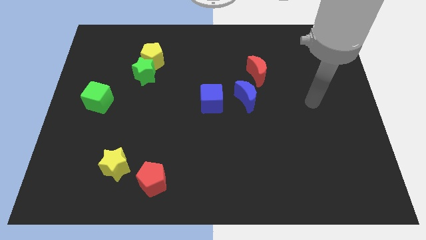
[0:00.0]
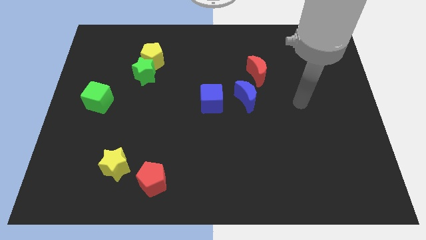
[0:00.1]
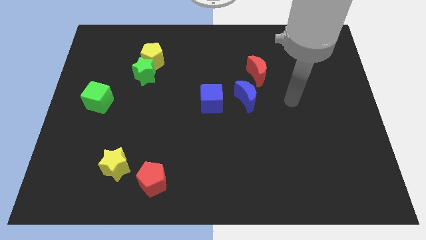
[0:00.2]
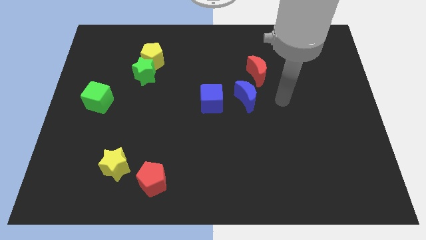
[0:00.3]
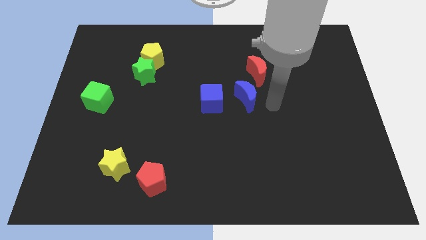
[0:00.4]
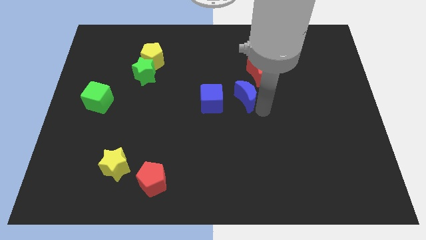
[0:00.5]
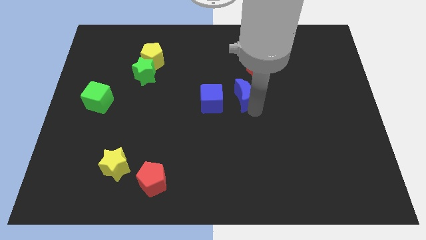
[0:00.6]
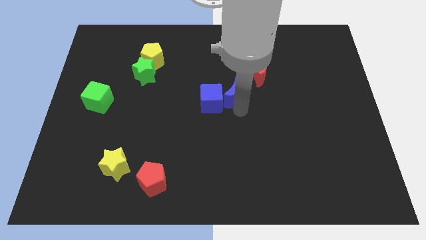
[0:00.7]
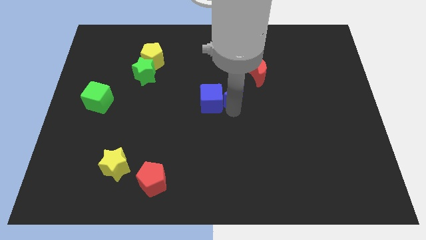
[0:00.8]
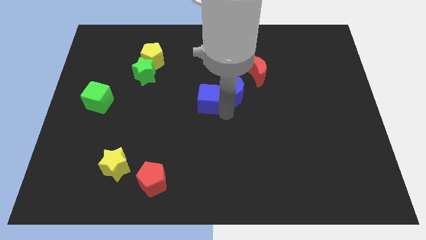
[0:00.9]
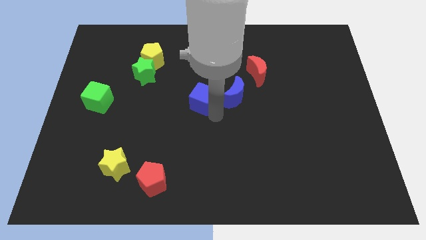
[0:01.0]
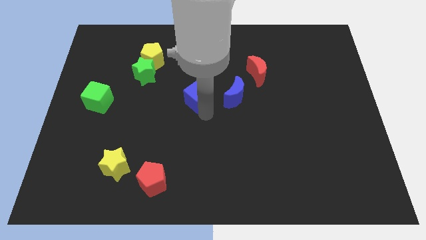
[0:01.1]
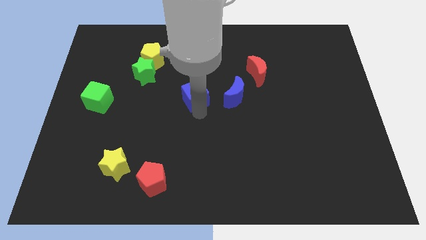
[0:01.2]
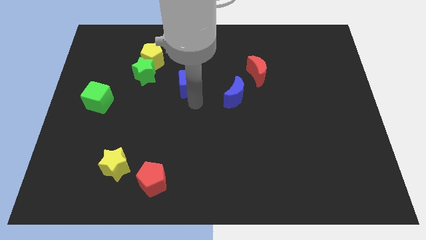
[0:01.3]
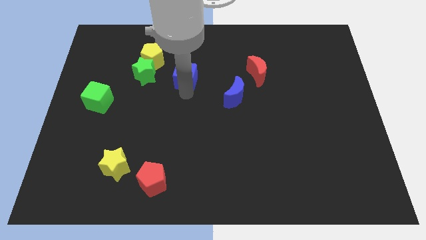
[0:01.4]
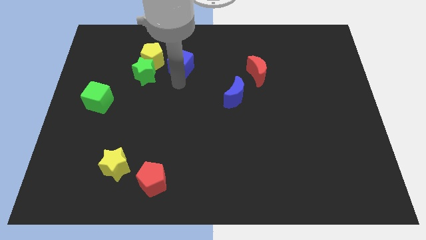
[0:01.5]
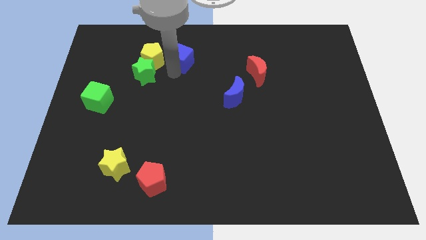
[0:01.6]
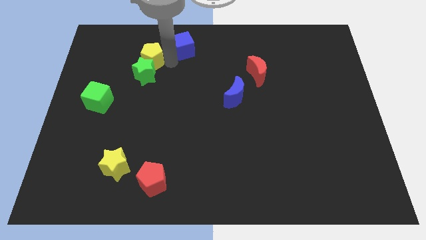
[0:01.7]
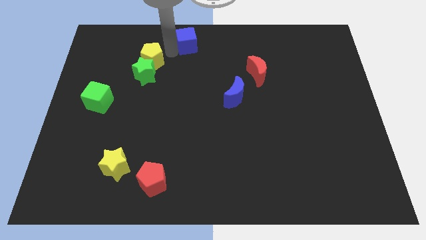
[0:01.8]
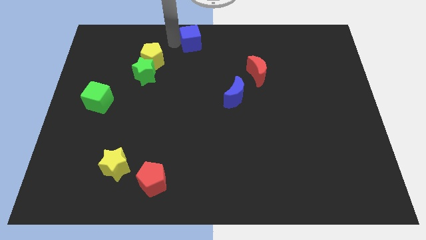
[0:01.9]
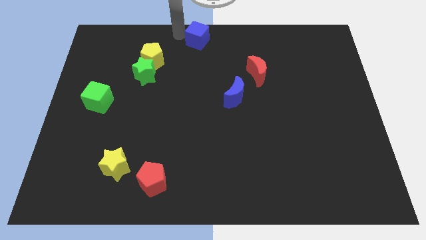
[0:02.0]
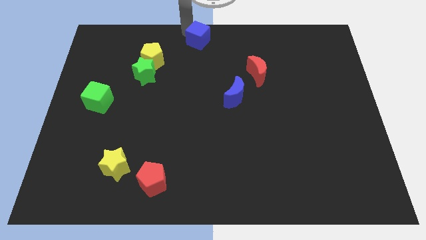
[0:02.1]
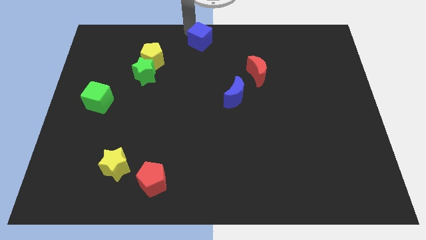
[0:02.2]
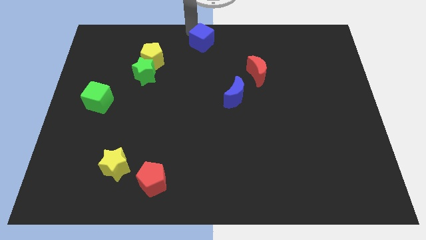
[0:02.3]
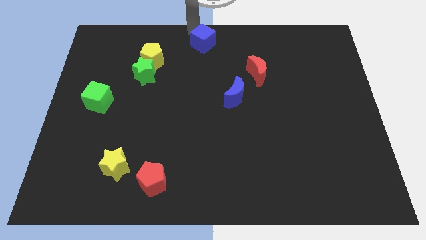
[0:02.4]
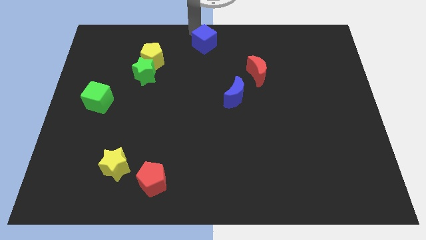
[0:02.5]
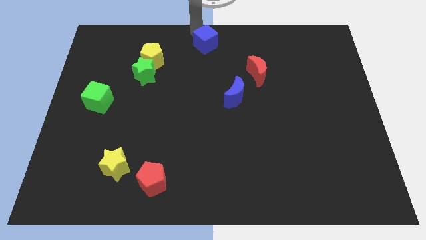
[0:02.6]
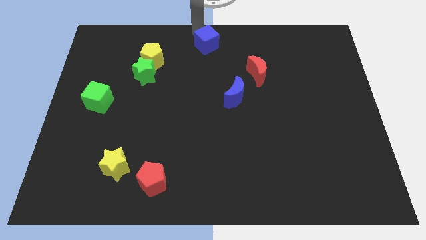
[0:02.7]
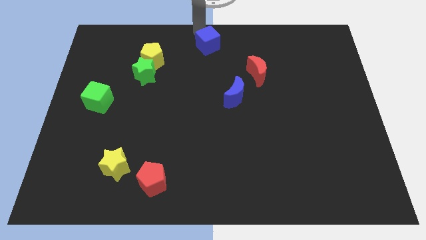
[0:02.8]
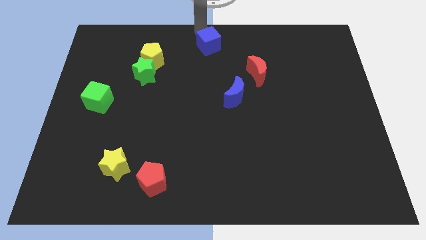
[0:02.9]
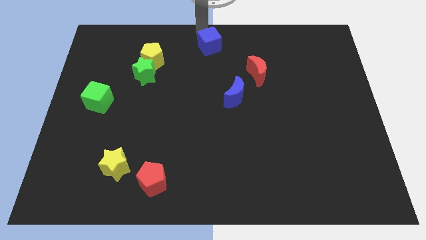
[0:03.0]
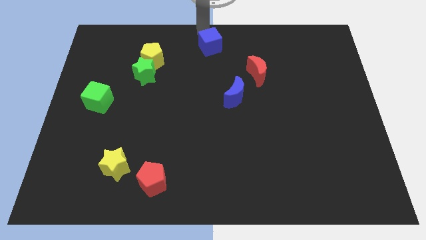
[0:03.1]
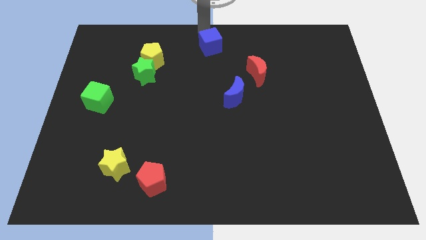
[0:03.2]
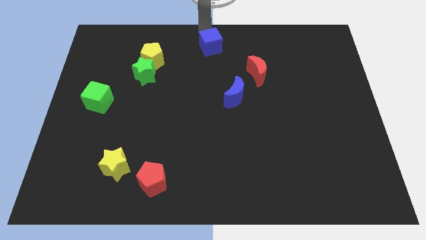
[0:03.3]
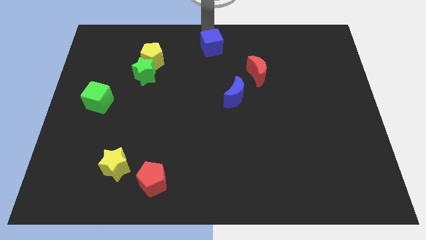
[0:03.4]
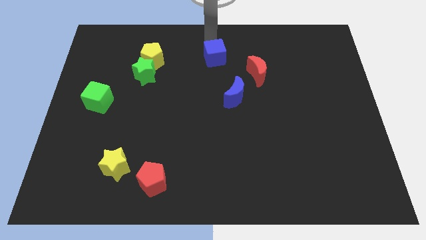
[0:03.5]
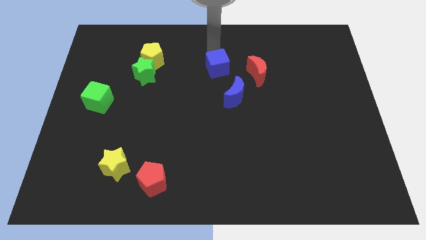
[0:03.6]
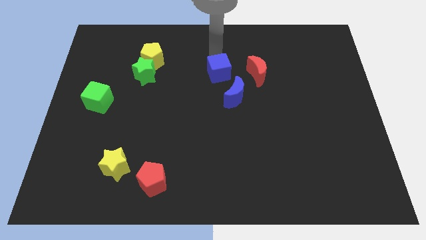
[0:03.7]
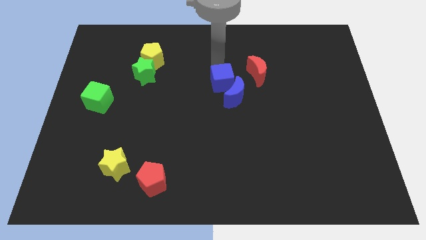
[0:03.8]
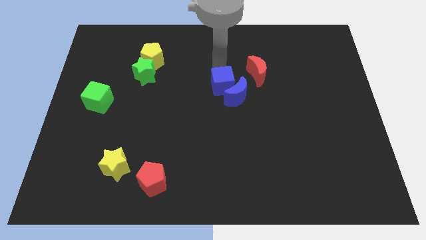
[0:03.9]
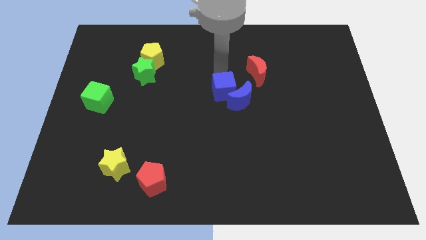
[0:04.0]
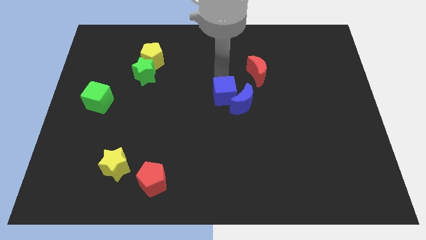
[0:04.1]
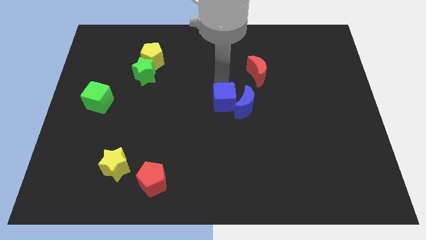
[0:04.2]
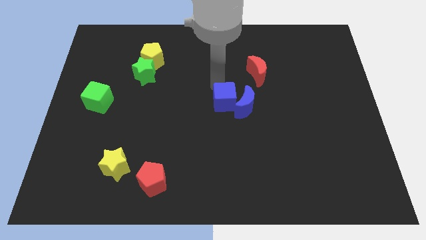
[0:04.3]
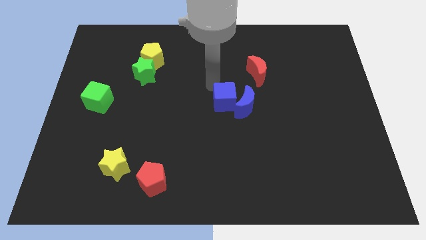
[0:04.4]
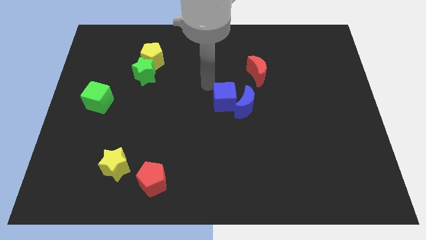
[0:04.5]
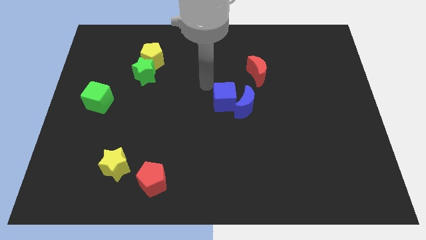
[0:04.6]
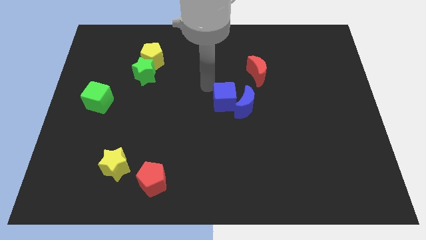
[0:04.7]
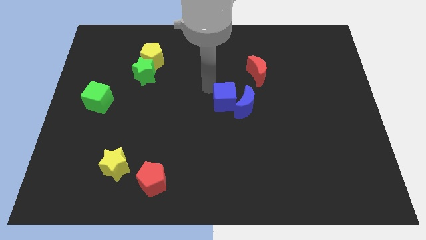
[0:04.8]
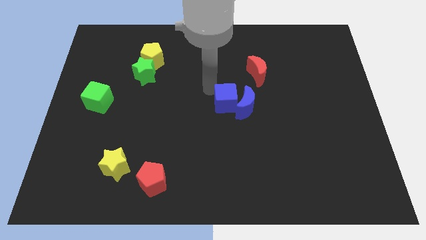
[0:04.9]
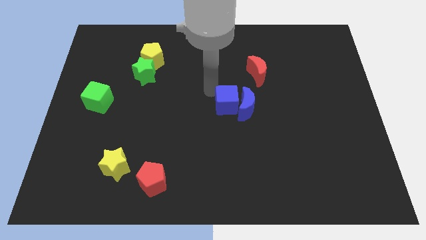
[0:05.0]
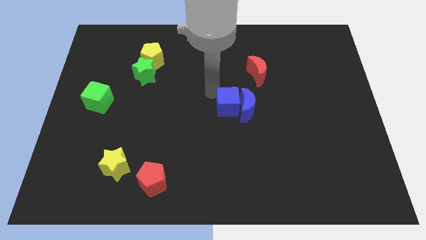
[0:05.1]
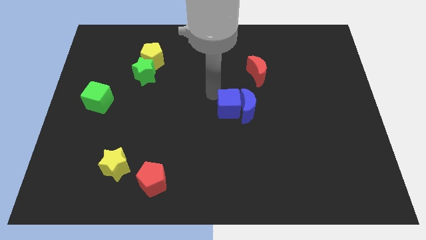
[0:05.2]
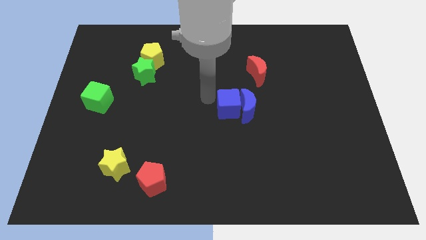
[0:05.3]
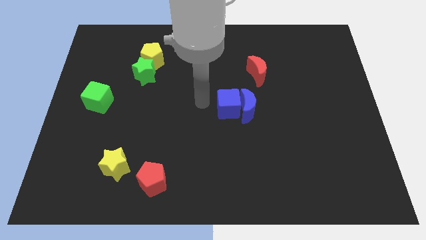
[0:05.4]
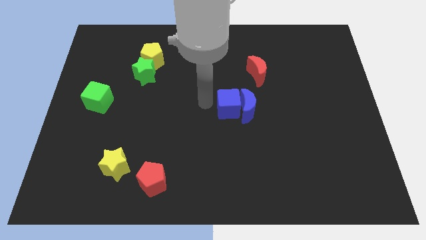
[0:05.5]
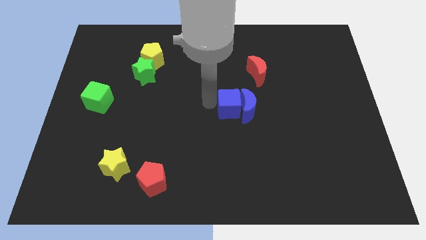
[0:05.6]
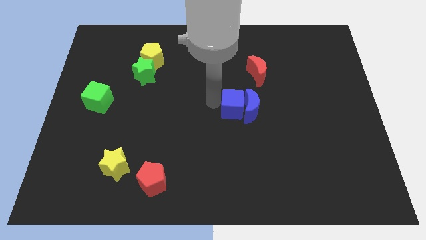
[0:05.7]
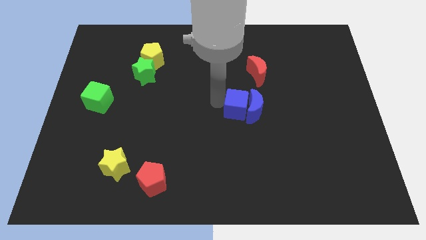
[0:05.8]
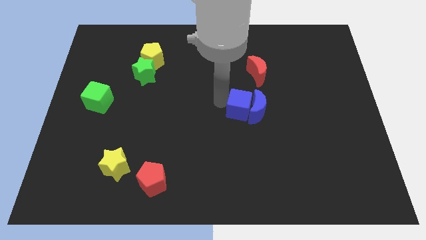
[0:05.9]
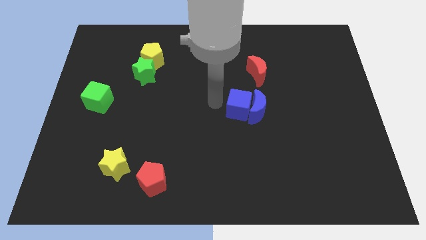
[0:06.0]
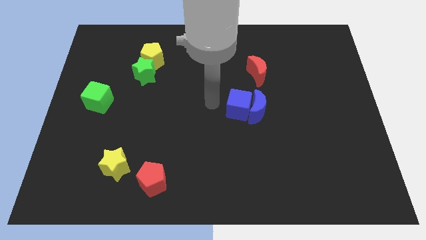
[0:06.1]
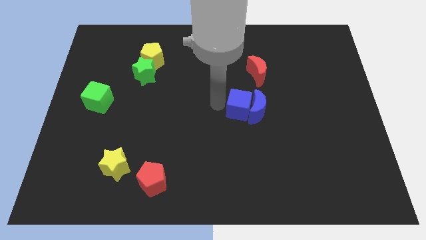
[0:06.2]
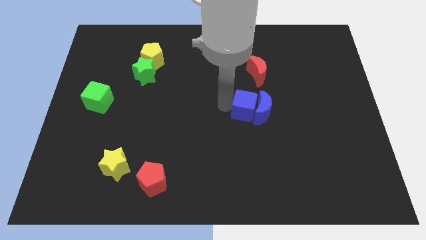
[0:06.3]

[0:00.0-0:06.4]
push the blue cube slightly to the right

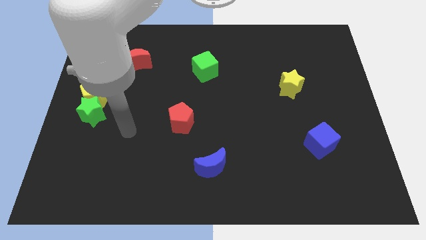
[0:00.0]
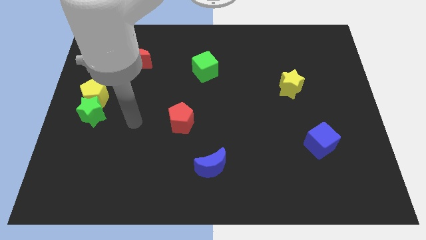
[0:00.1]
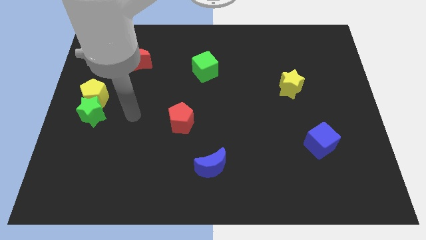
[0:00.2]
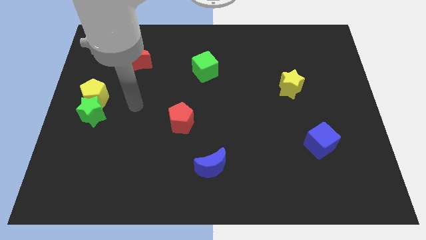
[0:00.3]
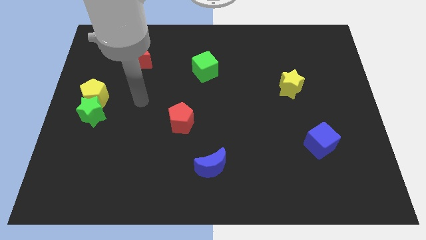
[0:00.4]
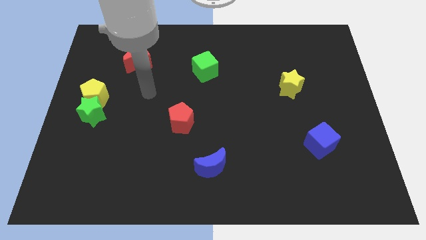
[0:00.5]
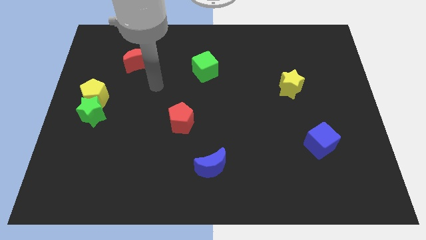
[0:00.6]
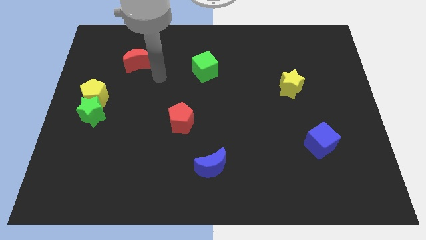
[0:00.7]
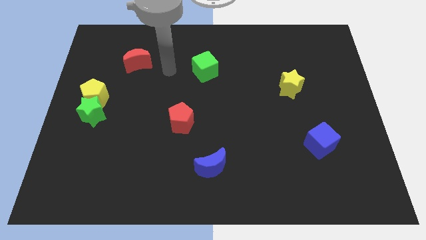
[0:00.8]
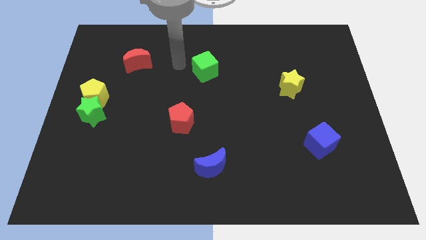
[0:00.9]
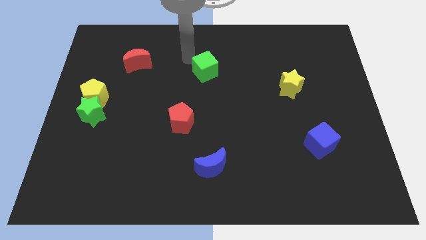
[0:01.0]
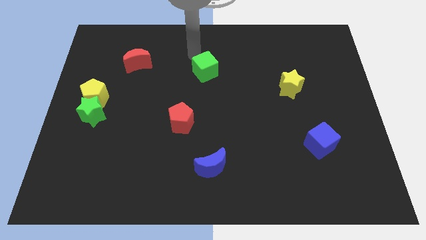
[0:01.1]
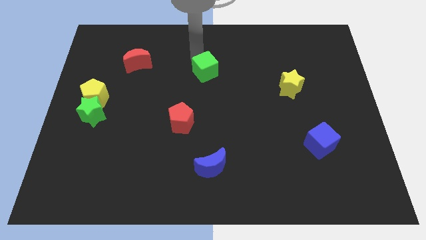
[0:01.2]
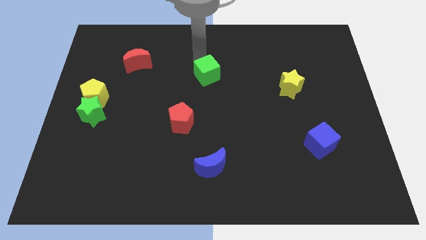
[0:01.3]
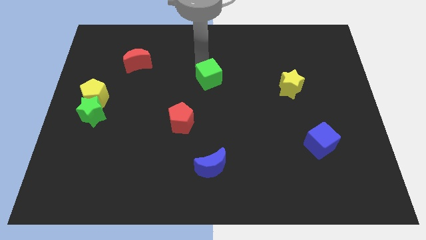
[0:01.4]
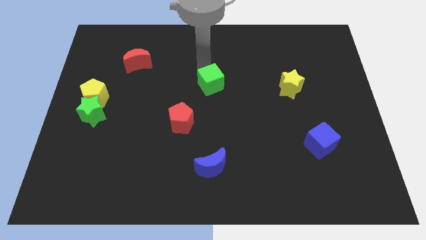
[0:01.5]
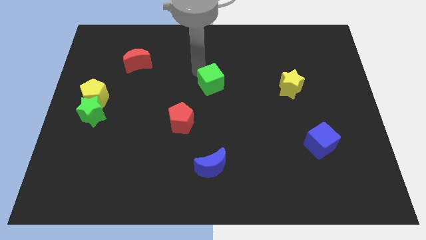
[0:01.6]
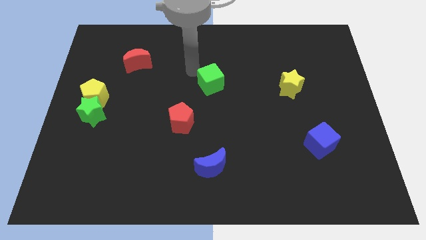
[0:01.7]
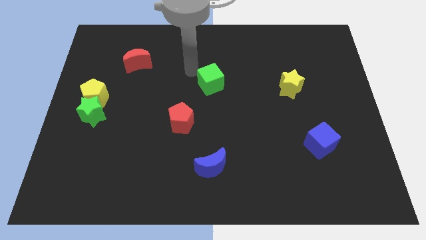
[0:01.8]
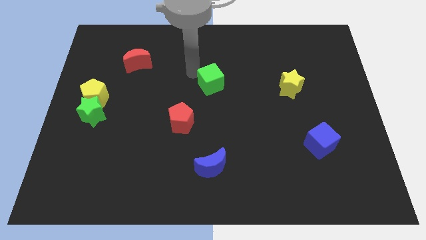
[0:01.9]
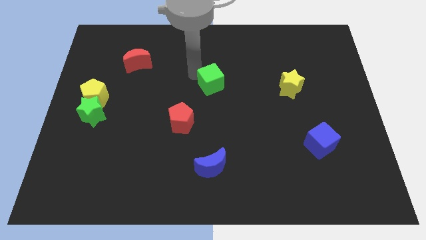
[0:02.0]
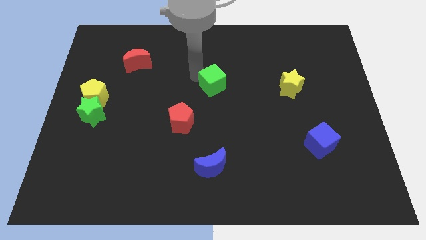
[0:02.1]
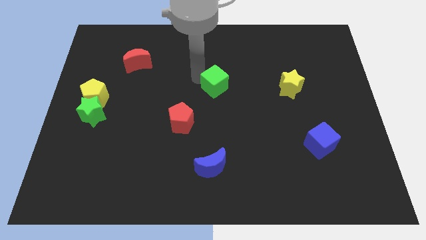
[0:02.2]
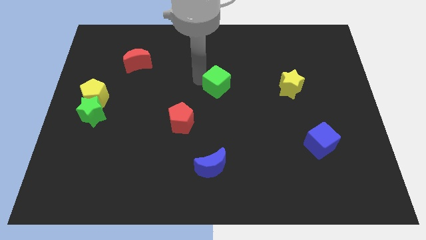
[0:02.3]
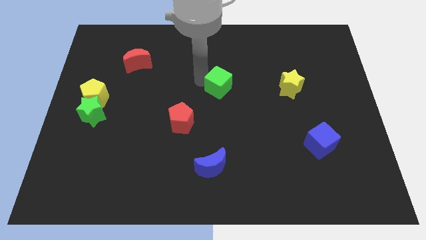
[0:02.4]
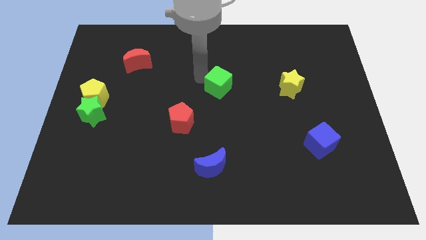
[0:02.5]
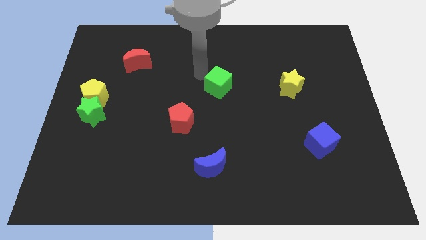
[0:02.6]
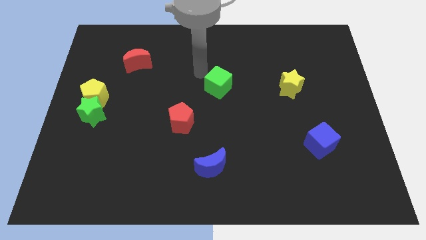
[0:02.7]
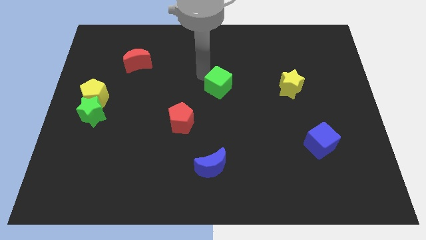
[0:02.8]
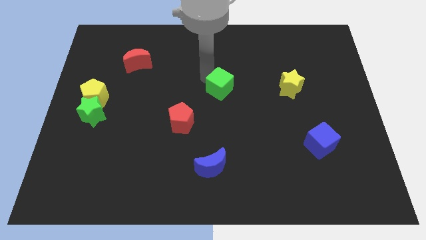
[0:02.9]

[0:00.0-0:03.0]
slightly slide the green cube downwards and then to the right
